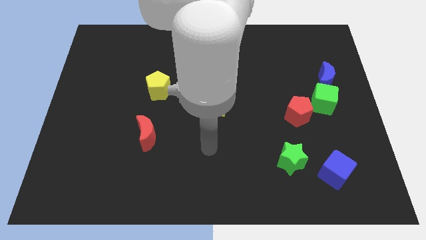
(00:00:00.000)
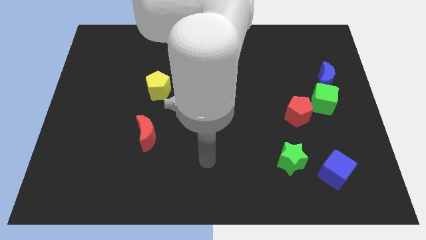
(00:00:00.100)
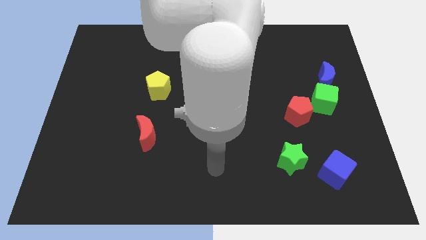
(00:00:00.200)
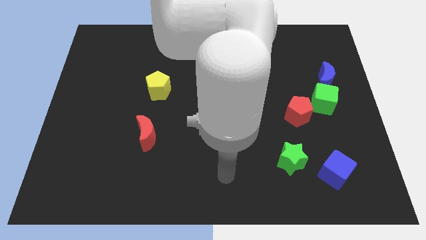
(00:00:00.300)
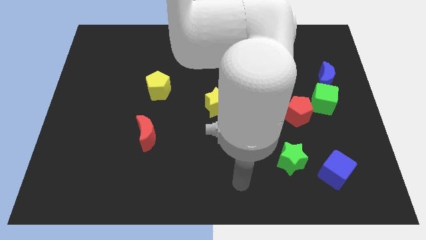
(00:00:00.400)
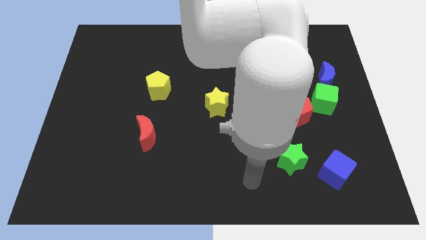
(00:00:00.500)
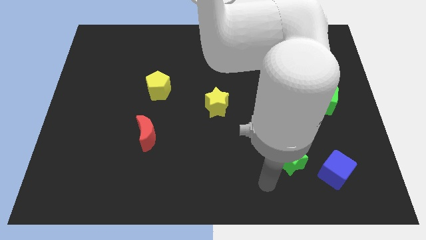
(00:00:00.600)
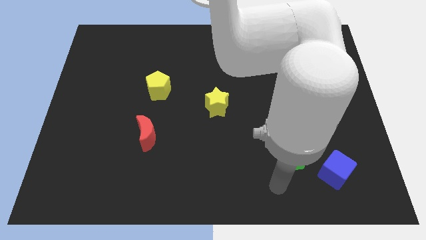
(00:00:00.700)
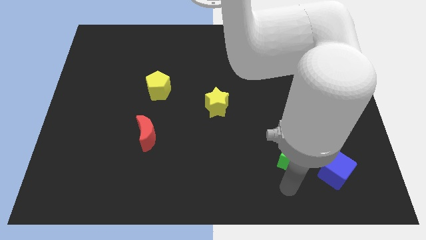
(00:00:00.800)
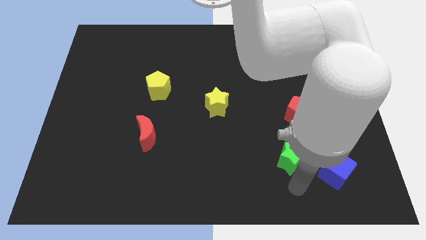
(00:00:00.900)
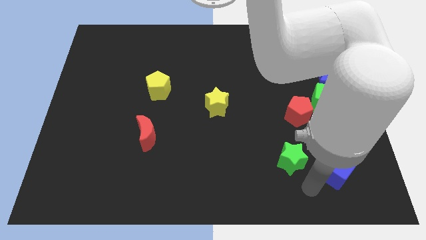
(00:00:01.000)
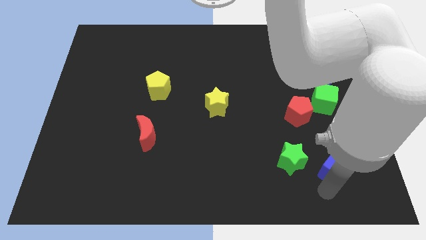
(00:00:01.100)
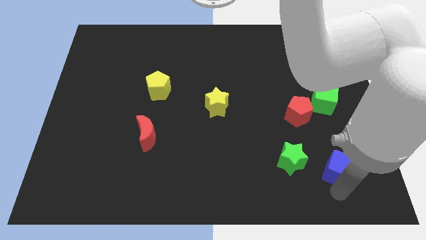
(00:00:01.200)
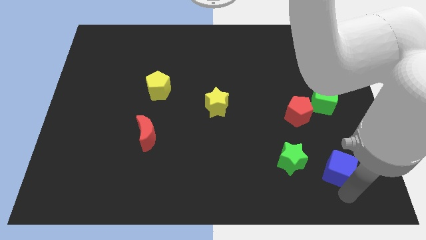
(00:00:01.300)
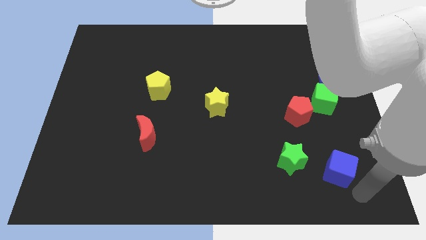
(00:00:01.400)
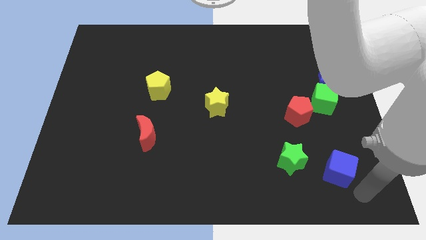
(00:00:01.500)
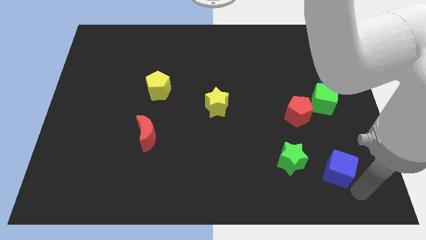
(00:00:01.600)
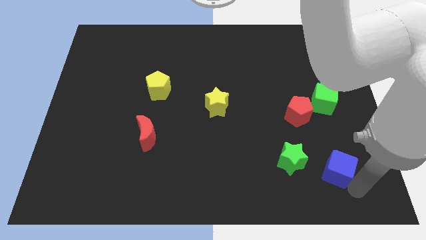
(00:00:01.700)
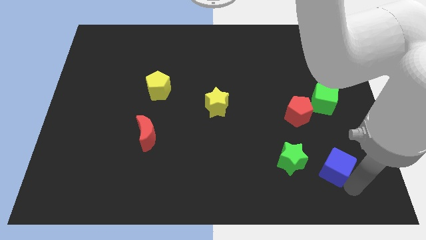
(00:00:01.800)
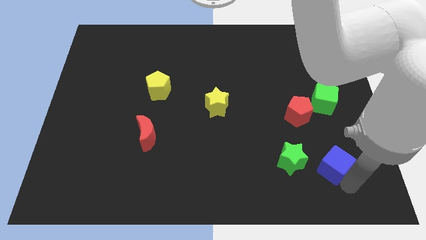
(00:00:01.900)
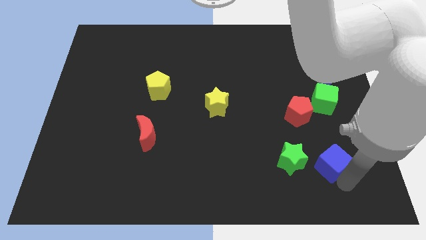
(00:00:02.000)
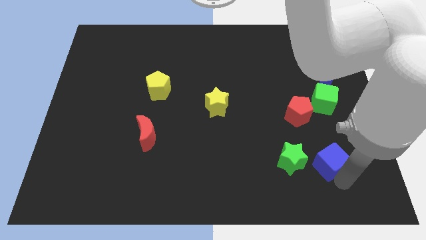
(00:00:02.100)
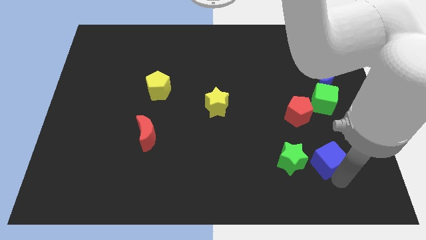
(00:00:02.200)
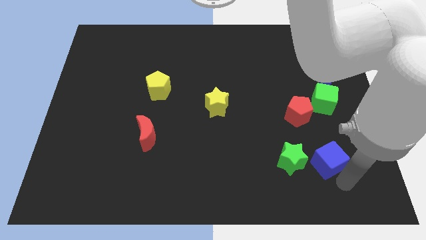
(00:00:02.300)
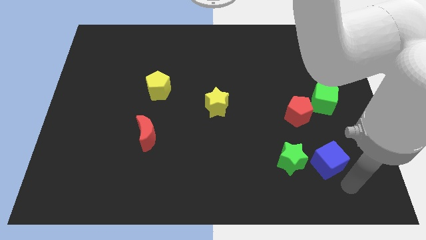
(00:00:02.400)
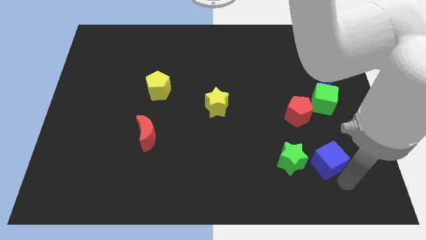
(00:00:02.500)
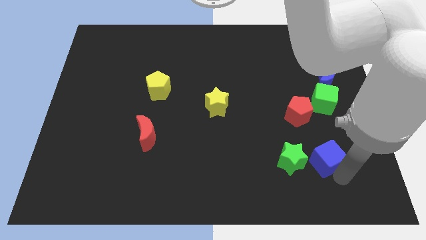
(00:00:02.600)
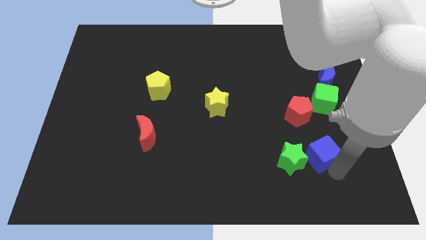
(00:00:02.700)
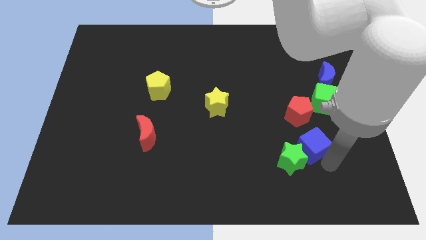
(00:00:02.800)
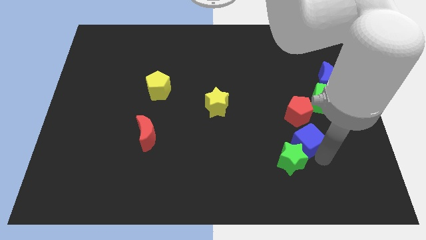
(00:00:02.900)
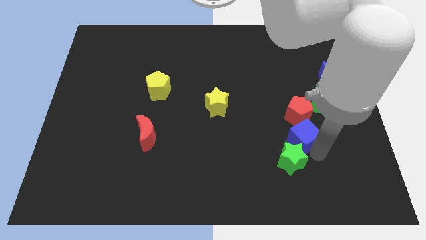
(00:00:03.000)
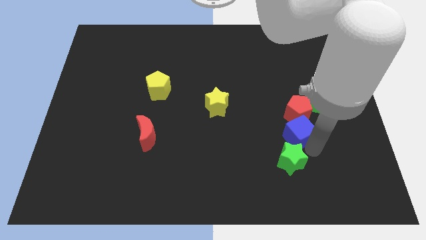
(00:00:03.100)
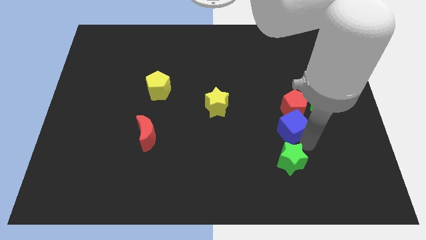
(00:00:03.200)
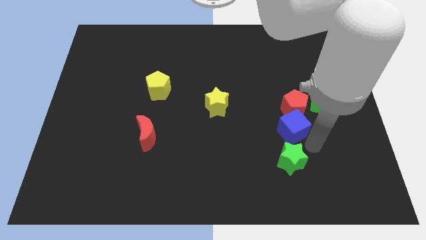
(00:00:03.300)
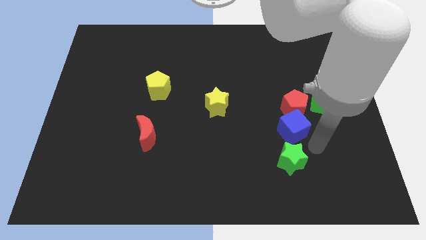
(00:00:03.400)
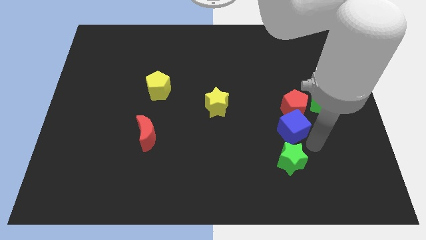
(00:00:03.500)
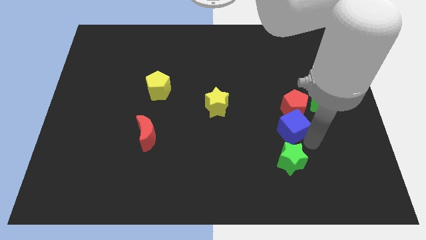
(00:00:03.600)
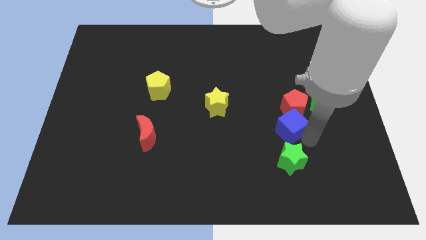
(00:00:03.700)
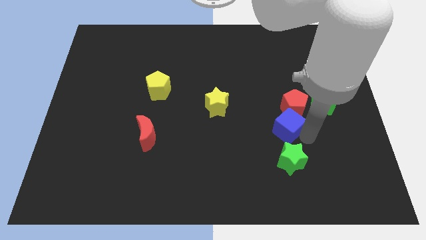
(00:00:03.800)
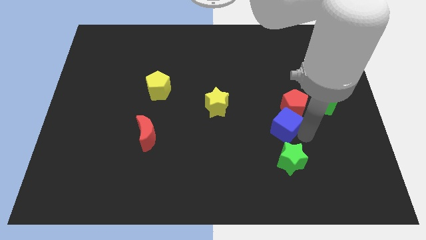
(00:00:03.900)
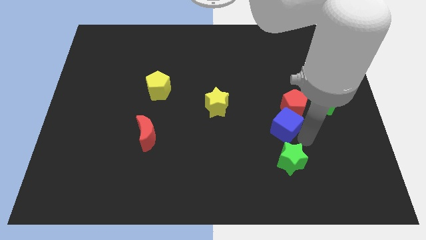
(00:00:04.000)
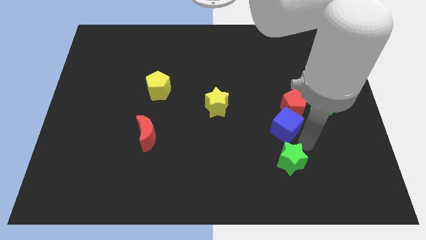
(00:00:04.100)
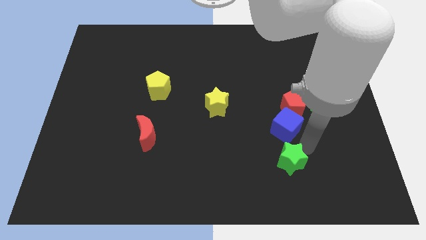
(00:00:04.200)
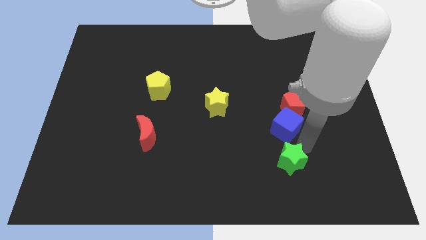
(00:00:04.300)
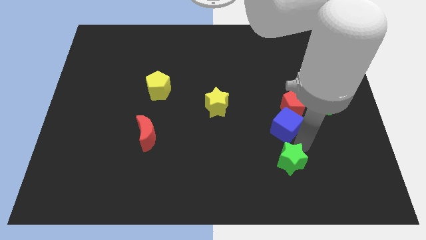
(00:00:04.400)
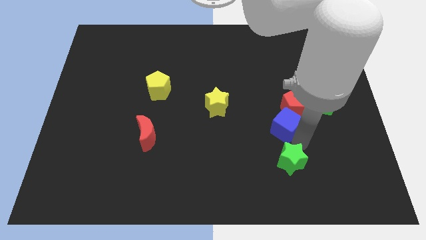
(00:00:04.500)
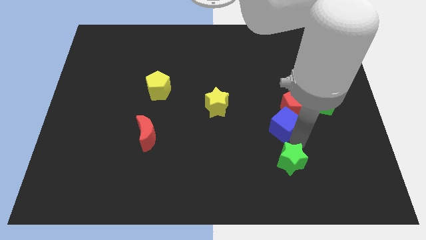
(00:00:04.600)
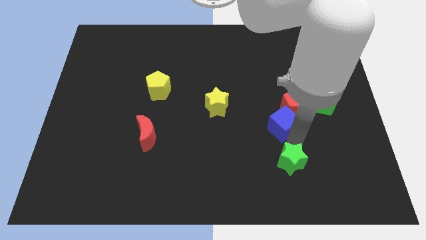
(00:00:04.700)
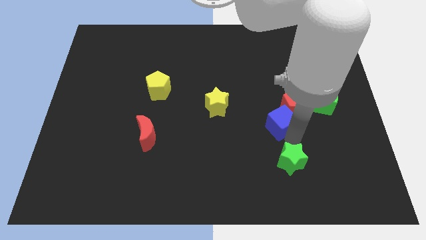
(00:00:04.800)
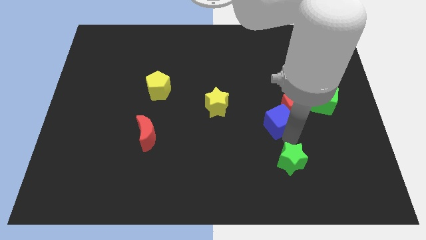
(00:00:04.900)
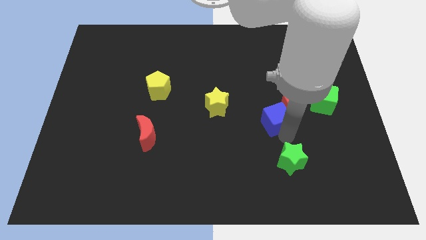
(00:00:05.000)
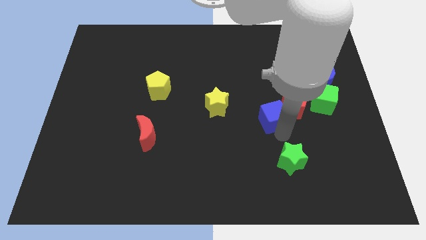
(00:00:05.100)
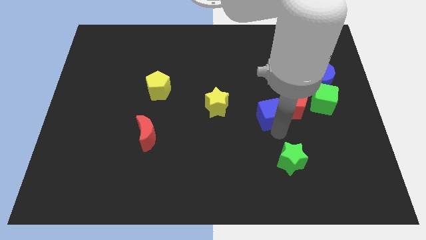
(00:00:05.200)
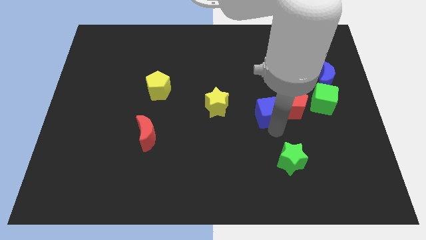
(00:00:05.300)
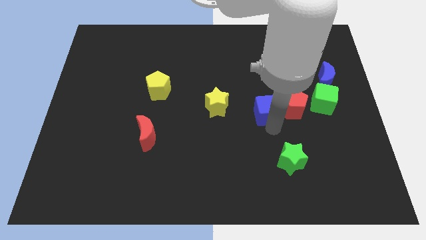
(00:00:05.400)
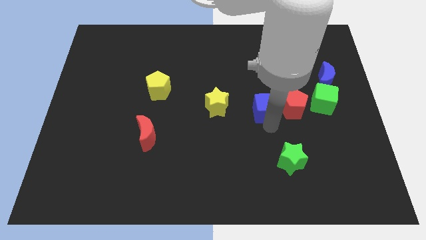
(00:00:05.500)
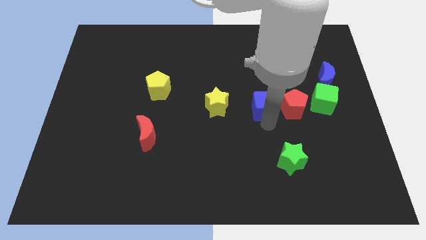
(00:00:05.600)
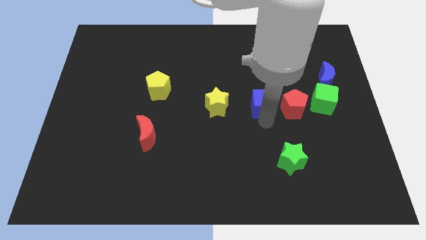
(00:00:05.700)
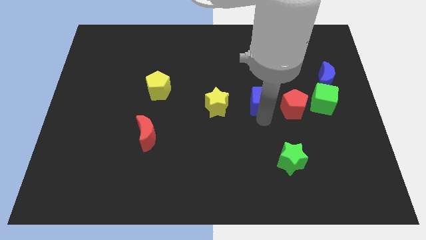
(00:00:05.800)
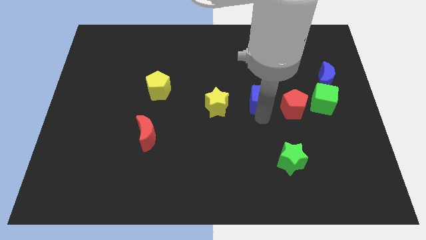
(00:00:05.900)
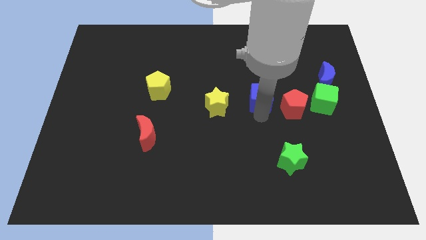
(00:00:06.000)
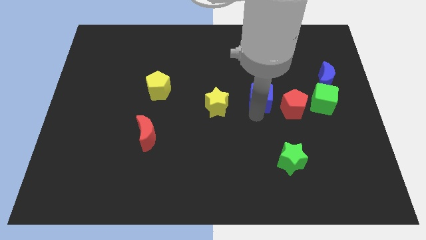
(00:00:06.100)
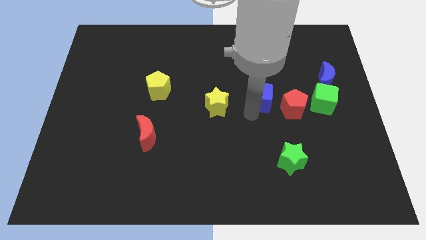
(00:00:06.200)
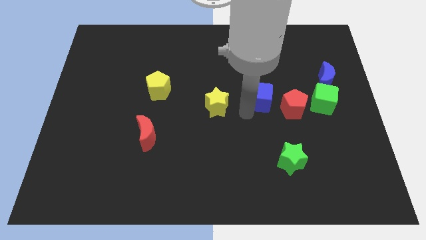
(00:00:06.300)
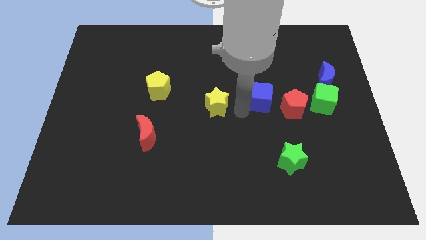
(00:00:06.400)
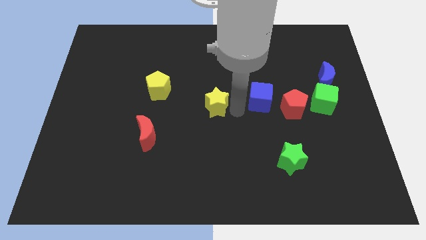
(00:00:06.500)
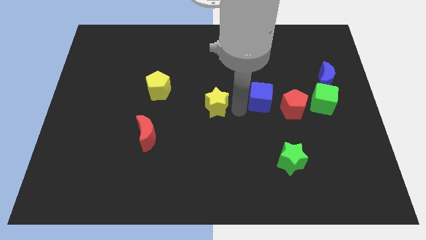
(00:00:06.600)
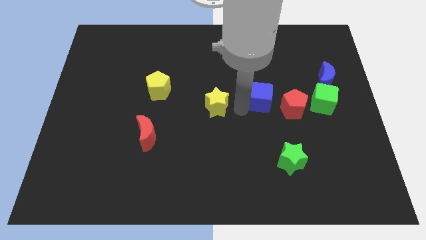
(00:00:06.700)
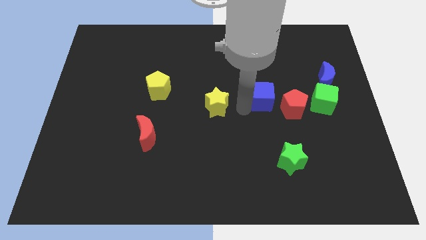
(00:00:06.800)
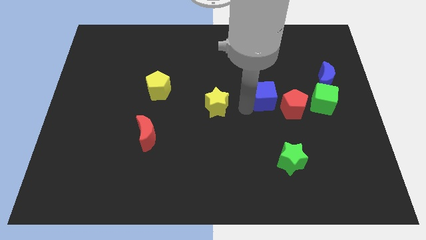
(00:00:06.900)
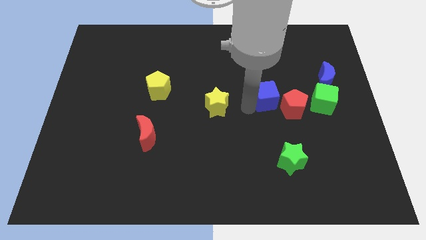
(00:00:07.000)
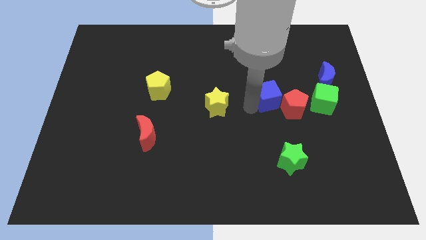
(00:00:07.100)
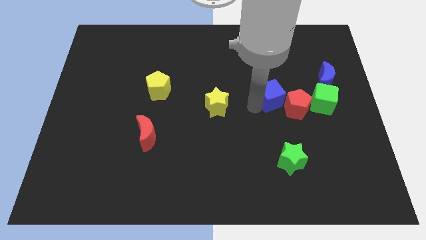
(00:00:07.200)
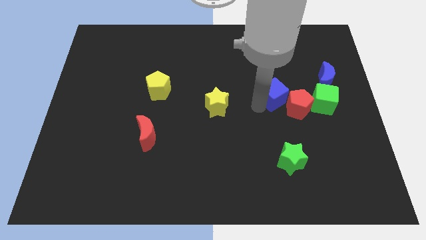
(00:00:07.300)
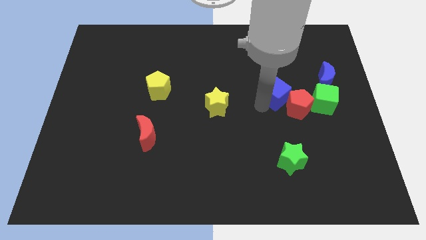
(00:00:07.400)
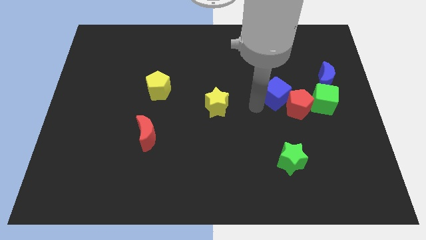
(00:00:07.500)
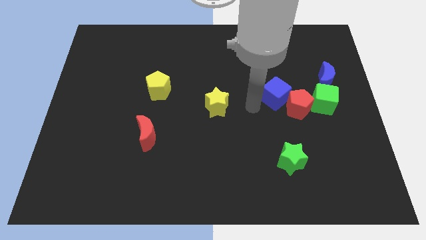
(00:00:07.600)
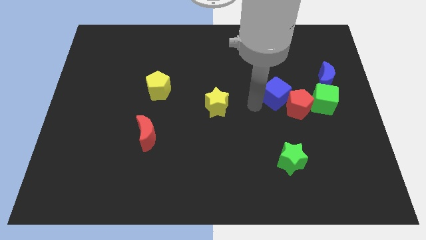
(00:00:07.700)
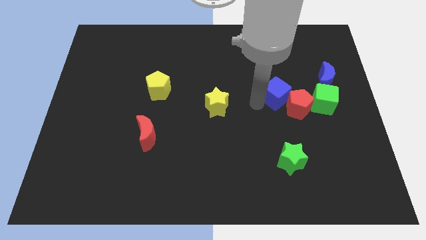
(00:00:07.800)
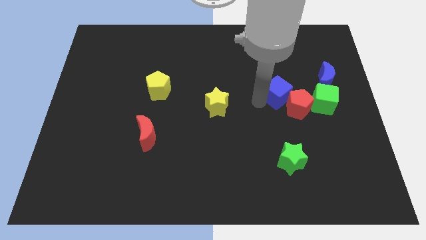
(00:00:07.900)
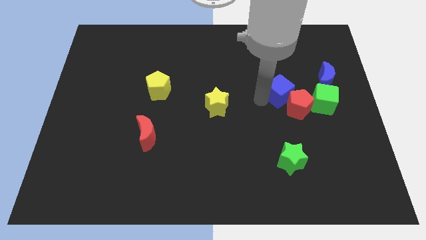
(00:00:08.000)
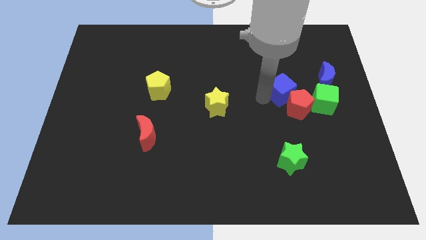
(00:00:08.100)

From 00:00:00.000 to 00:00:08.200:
put the blue cube to the top left of the green cube
